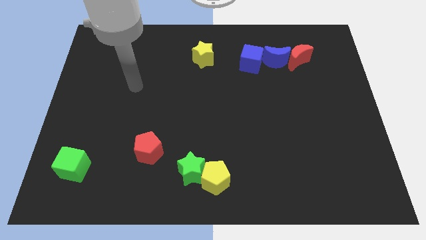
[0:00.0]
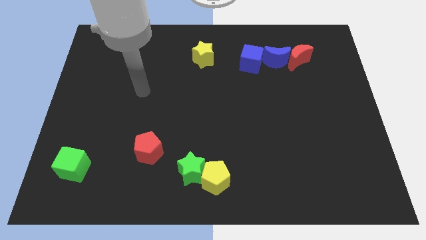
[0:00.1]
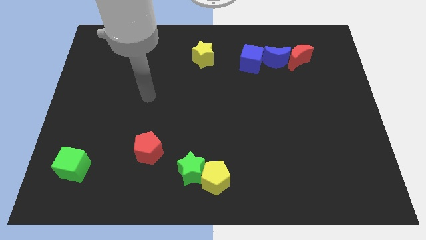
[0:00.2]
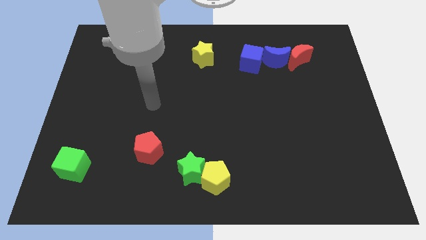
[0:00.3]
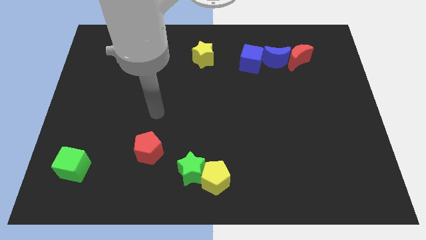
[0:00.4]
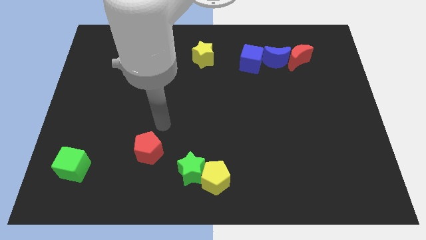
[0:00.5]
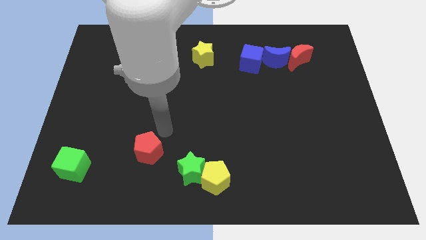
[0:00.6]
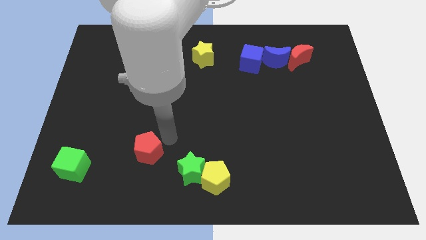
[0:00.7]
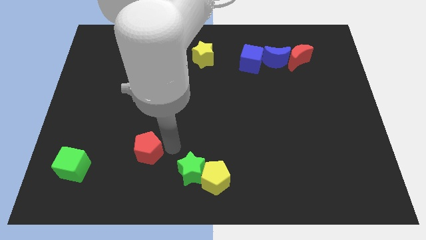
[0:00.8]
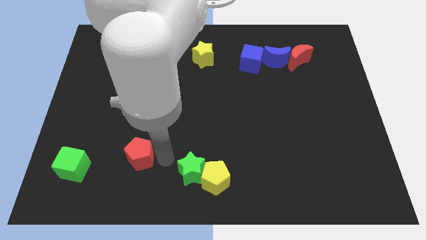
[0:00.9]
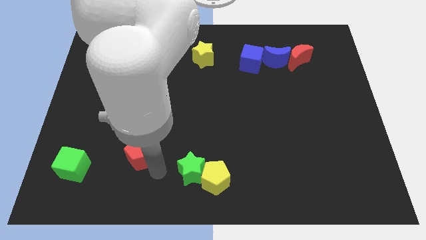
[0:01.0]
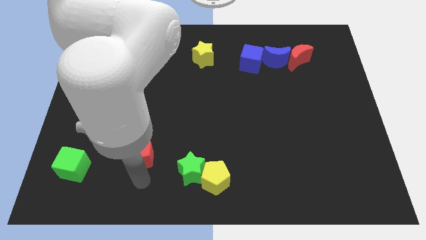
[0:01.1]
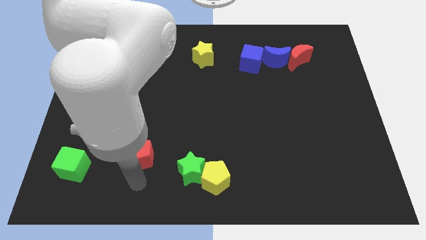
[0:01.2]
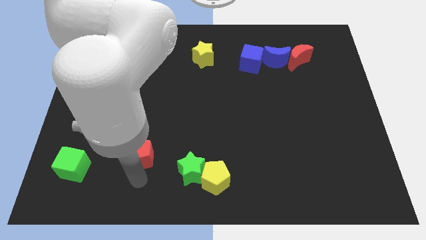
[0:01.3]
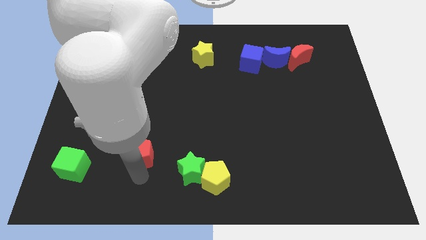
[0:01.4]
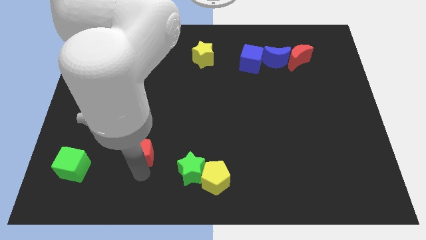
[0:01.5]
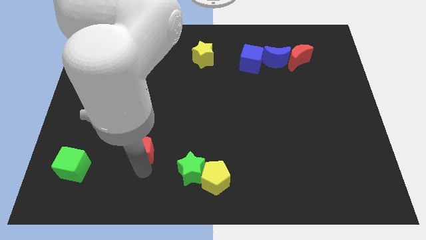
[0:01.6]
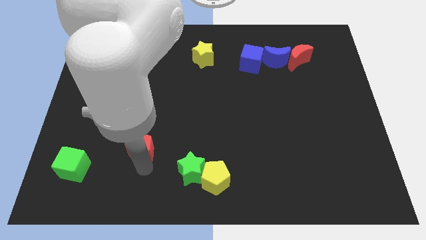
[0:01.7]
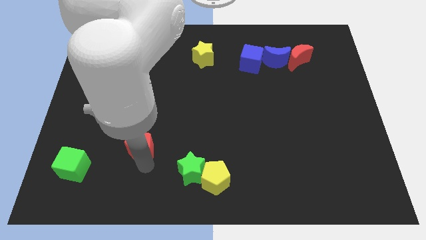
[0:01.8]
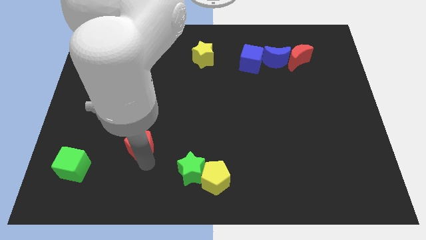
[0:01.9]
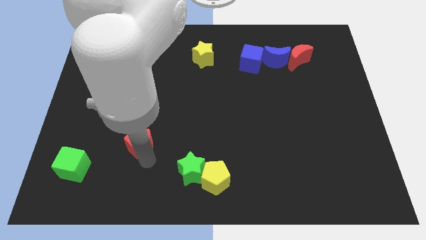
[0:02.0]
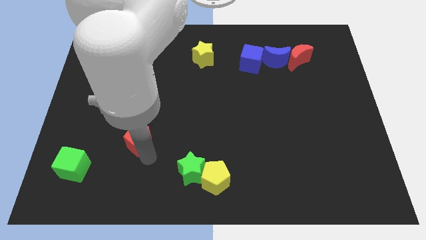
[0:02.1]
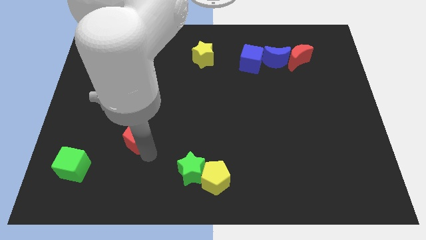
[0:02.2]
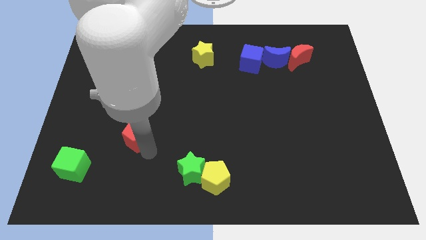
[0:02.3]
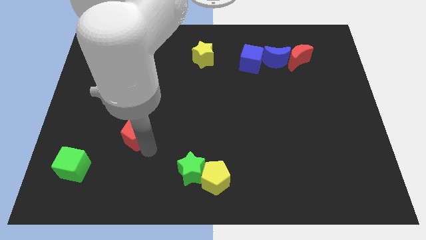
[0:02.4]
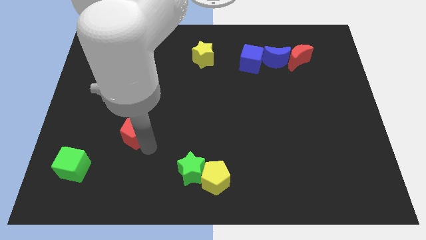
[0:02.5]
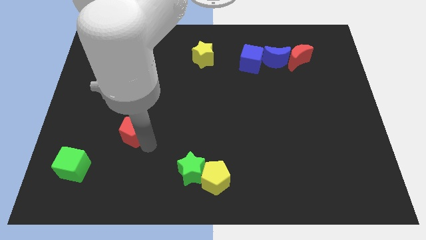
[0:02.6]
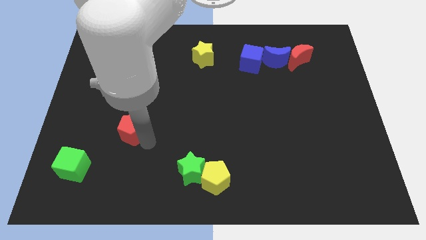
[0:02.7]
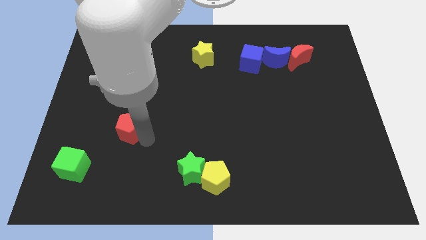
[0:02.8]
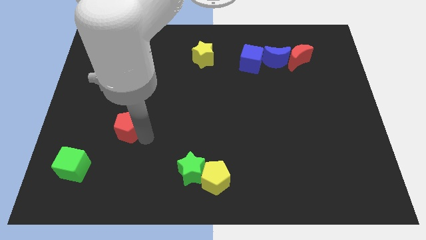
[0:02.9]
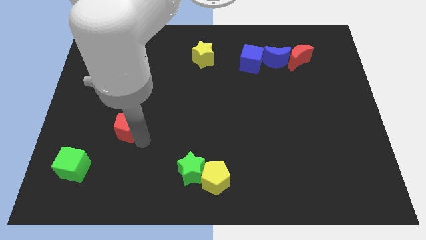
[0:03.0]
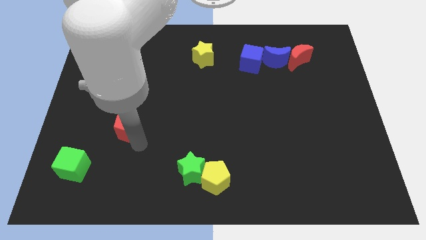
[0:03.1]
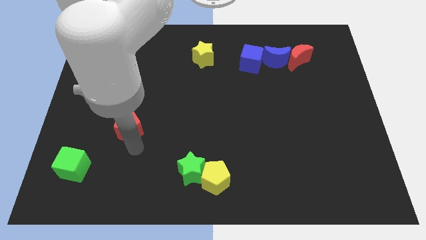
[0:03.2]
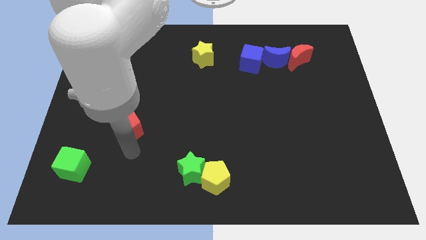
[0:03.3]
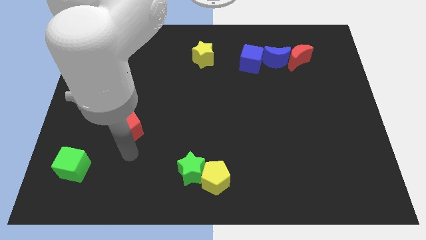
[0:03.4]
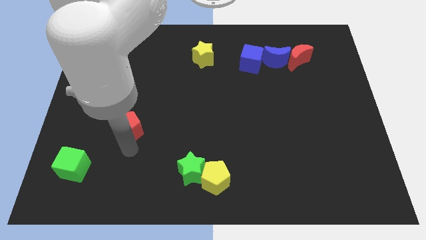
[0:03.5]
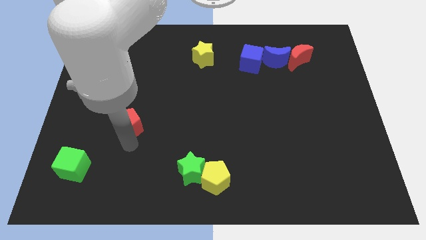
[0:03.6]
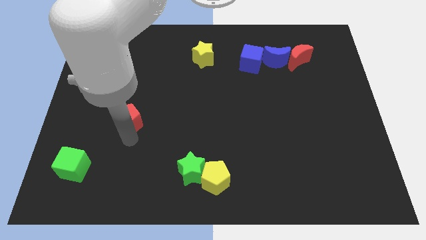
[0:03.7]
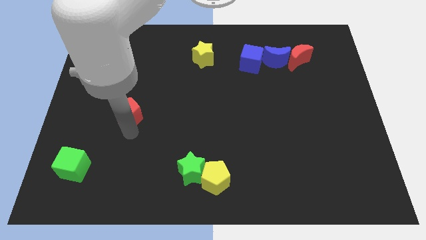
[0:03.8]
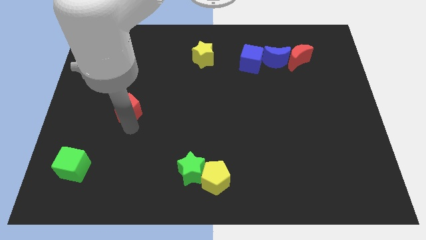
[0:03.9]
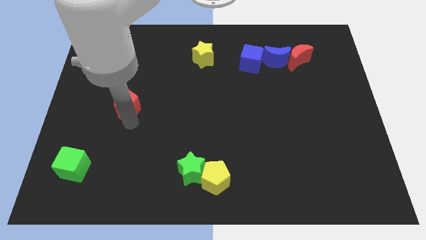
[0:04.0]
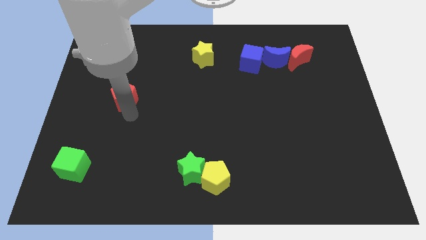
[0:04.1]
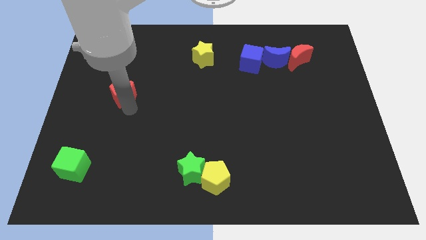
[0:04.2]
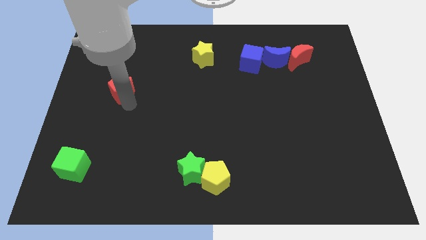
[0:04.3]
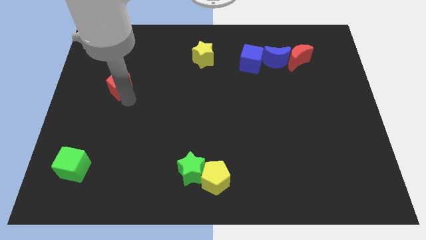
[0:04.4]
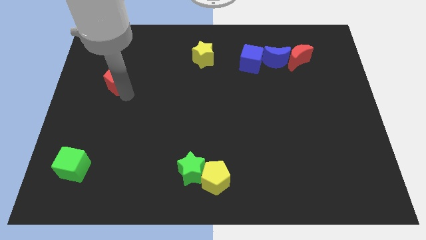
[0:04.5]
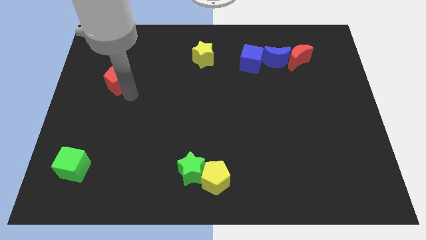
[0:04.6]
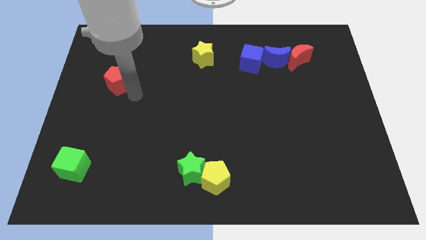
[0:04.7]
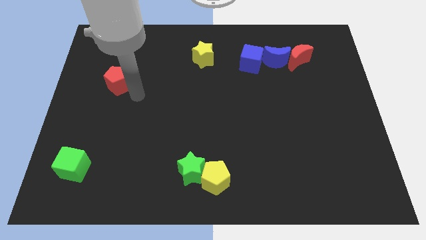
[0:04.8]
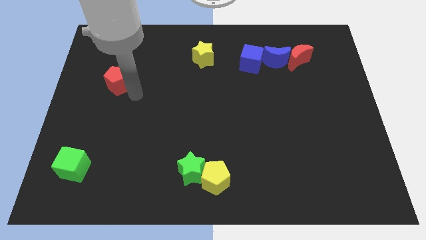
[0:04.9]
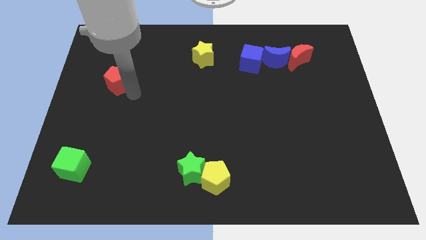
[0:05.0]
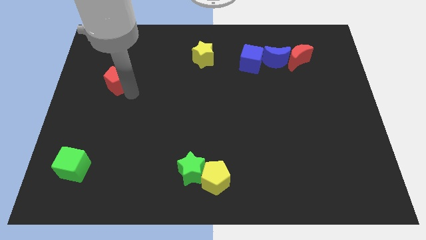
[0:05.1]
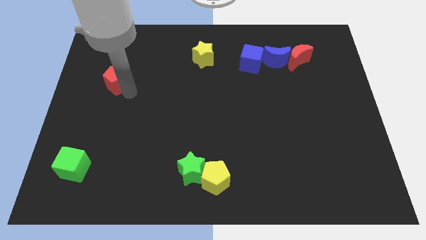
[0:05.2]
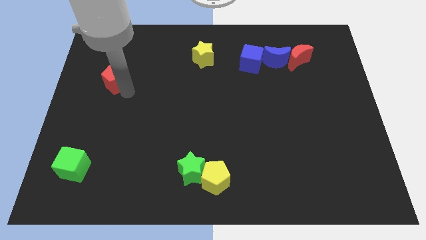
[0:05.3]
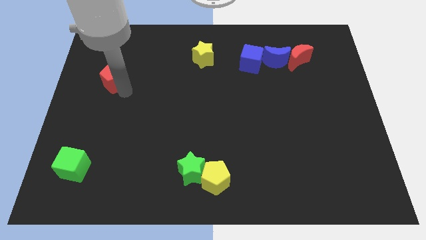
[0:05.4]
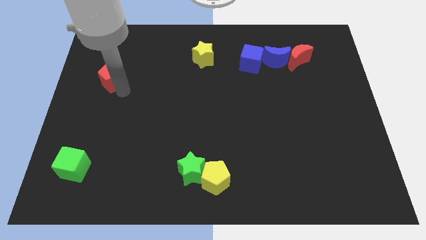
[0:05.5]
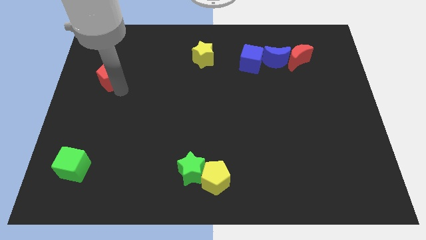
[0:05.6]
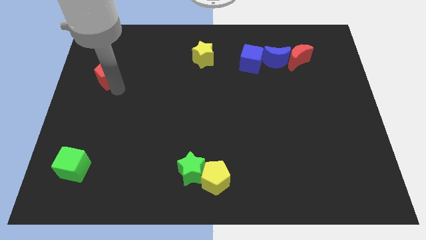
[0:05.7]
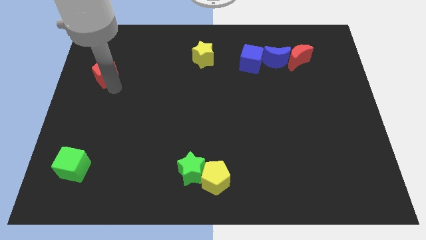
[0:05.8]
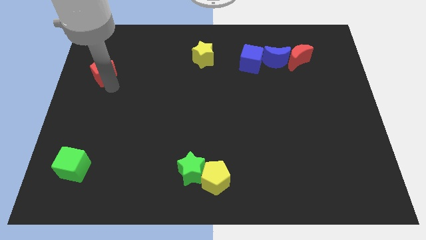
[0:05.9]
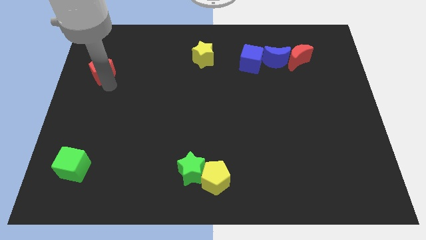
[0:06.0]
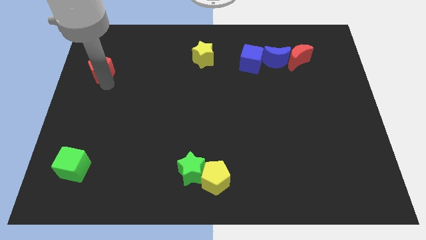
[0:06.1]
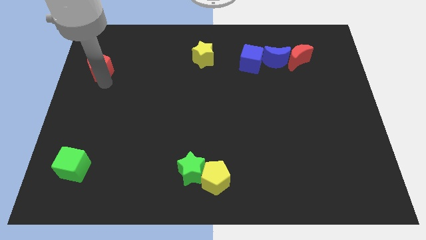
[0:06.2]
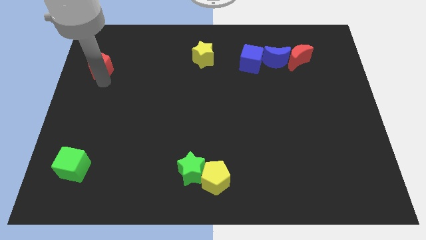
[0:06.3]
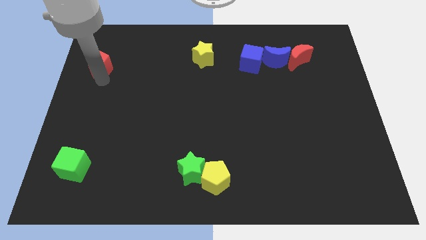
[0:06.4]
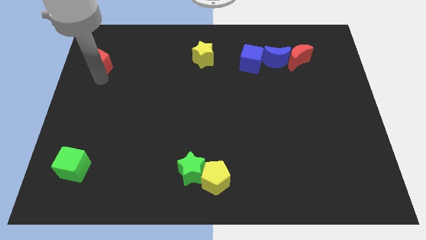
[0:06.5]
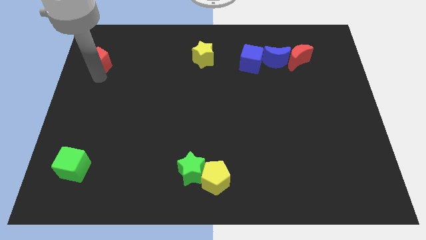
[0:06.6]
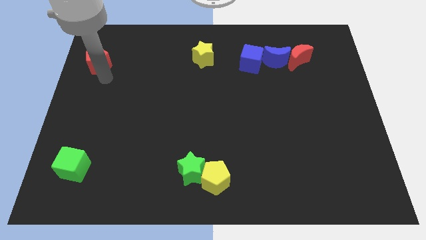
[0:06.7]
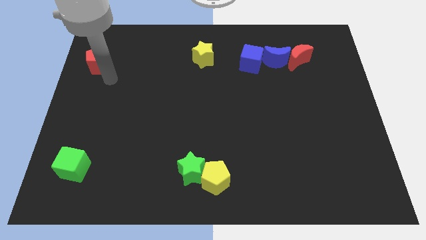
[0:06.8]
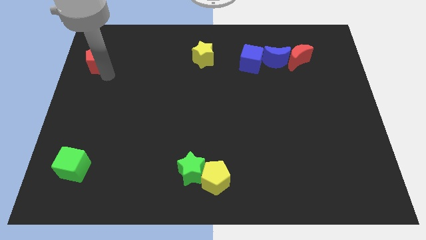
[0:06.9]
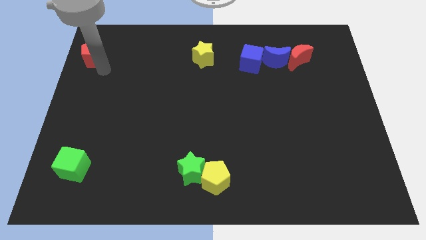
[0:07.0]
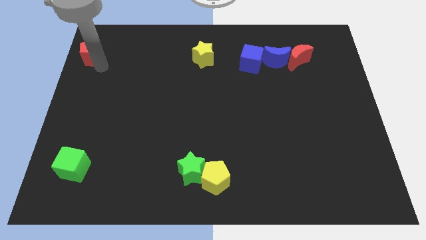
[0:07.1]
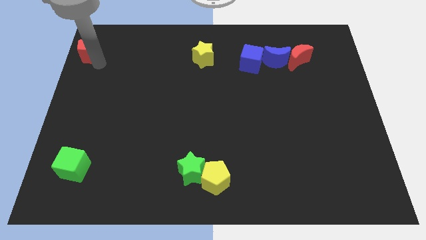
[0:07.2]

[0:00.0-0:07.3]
push the red pentagon to the upper left corner
